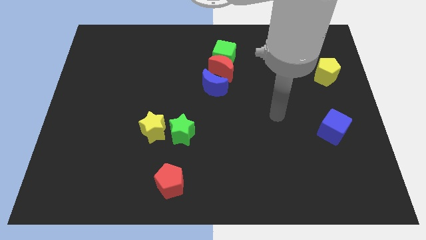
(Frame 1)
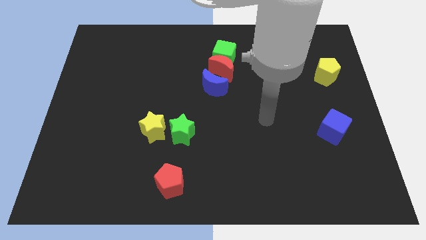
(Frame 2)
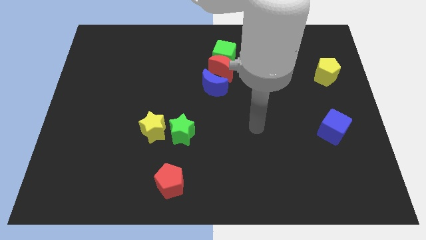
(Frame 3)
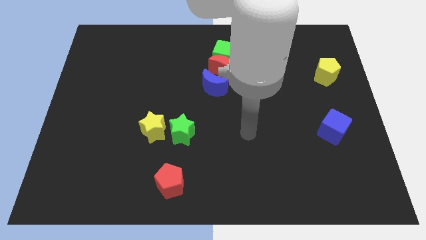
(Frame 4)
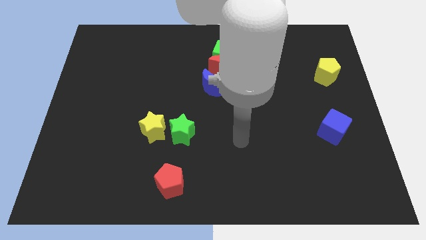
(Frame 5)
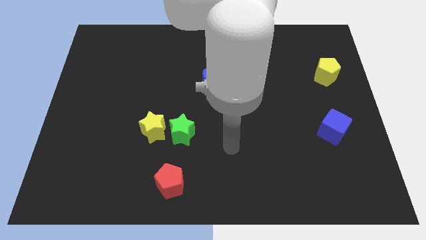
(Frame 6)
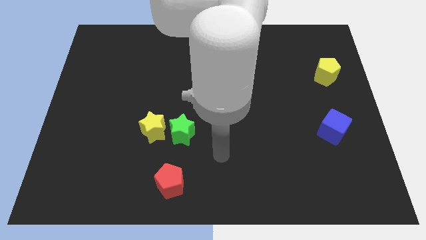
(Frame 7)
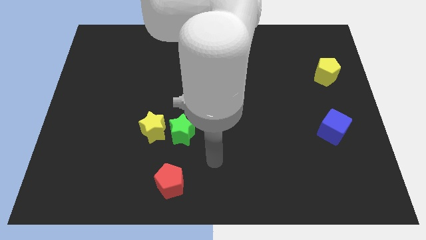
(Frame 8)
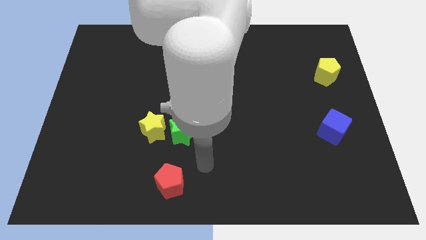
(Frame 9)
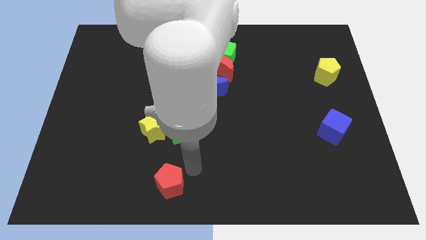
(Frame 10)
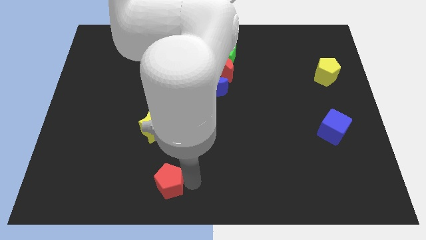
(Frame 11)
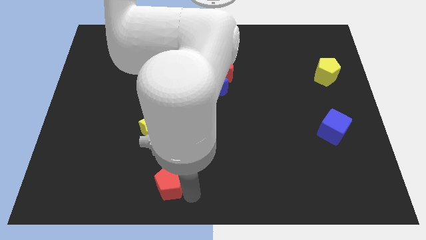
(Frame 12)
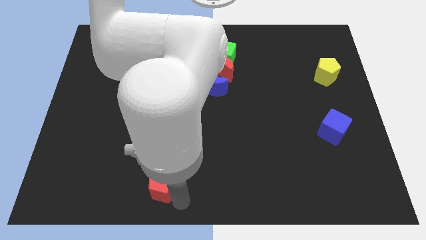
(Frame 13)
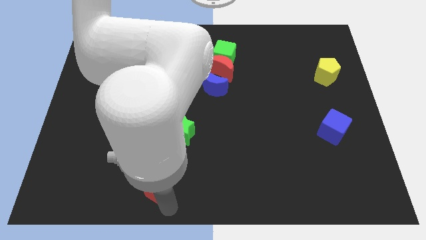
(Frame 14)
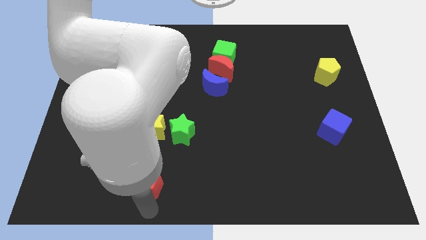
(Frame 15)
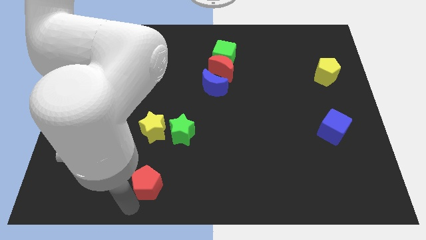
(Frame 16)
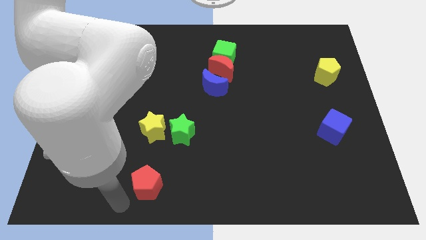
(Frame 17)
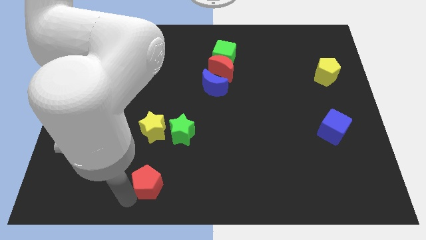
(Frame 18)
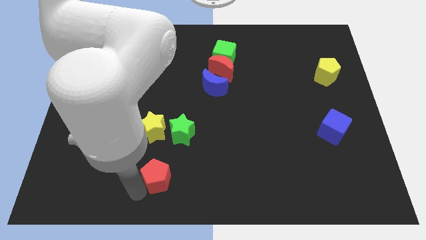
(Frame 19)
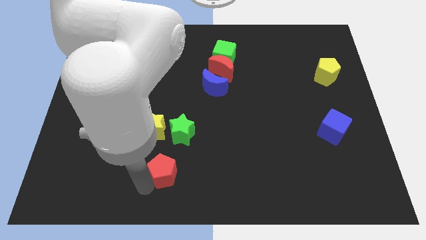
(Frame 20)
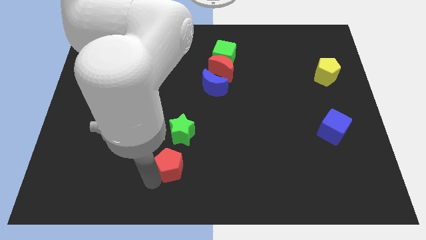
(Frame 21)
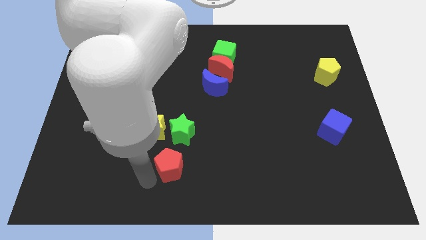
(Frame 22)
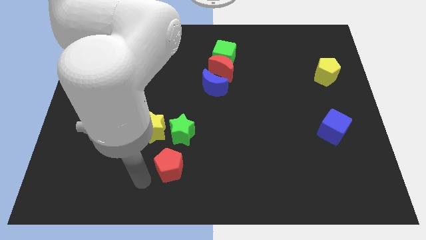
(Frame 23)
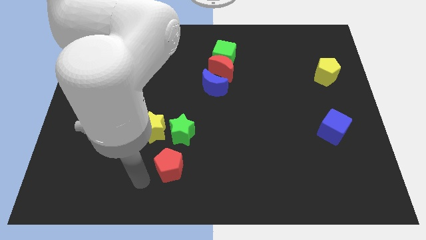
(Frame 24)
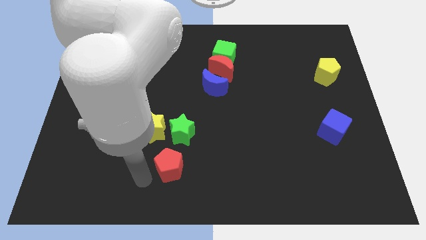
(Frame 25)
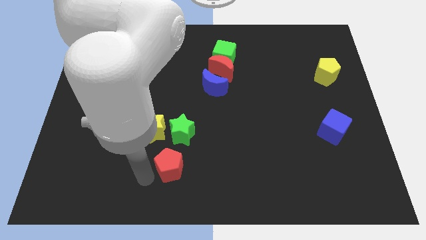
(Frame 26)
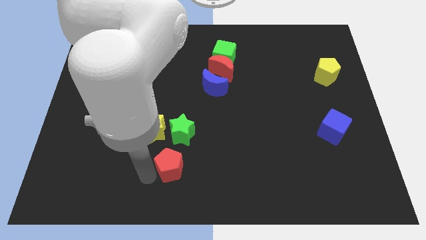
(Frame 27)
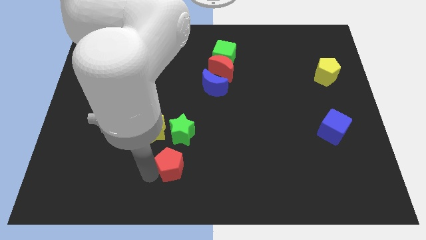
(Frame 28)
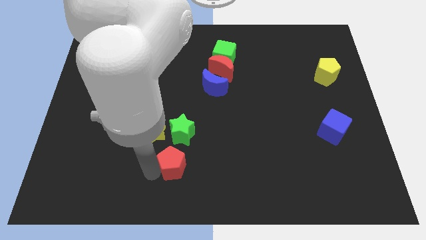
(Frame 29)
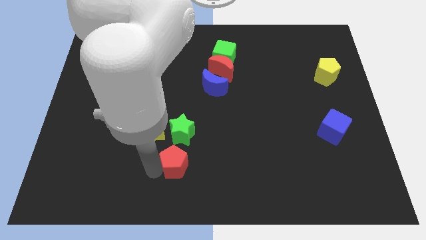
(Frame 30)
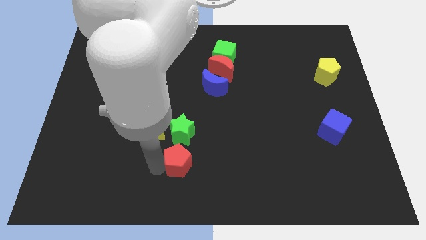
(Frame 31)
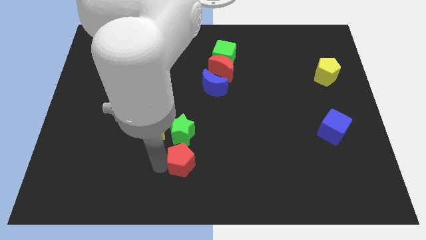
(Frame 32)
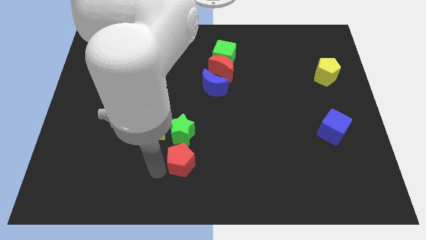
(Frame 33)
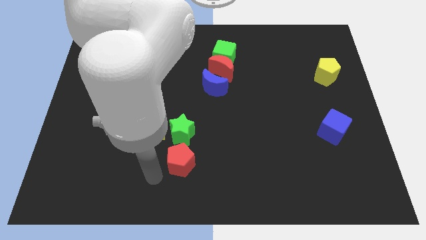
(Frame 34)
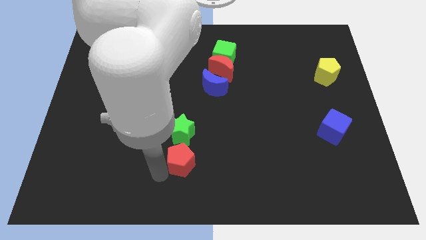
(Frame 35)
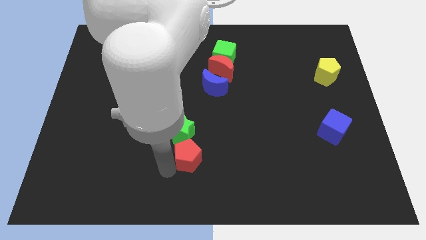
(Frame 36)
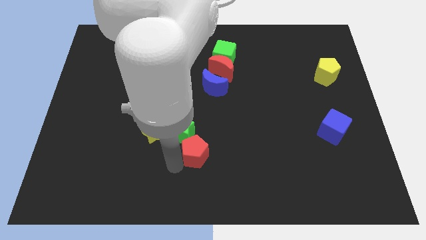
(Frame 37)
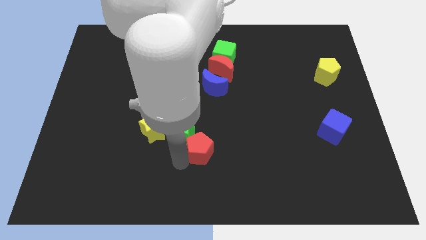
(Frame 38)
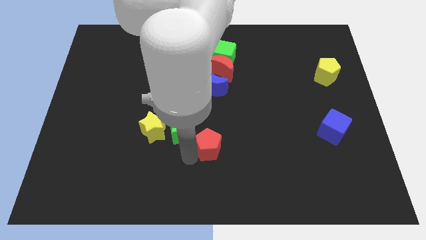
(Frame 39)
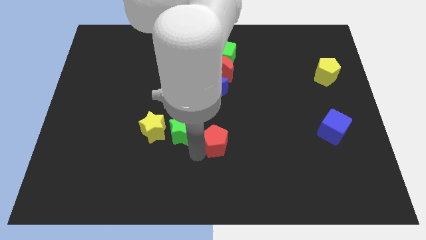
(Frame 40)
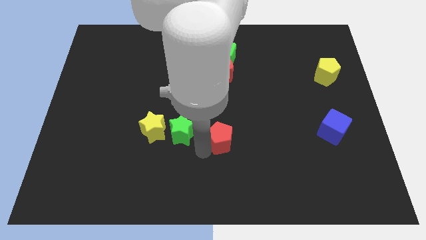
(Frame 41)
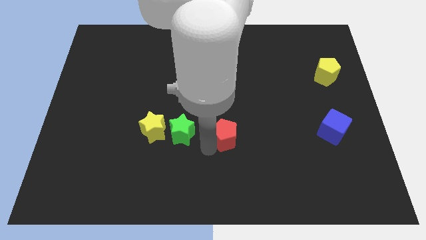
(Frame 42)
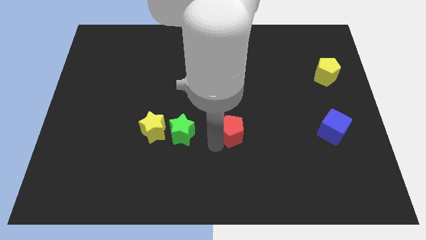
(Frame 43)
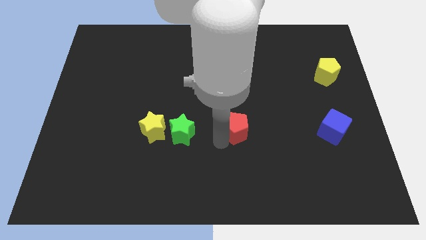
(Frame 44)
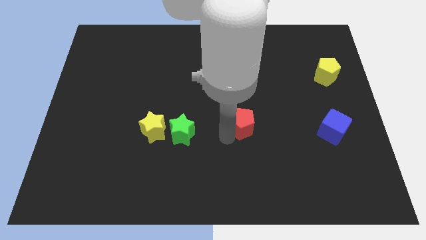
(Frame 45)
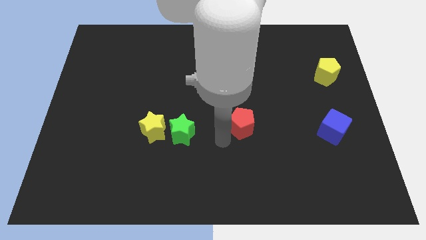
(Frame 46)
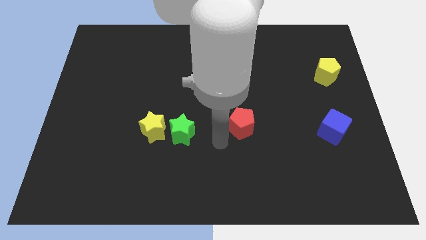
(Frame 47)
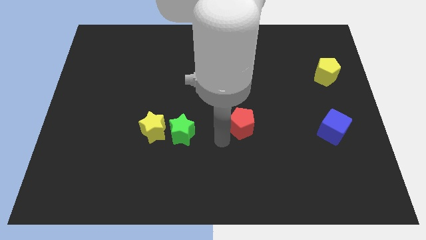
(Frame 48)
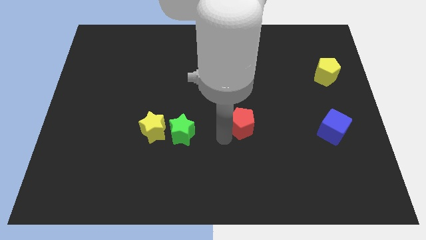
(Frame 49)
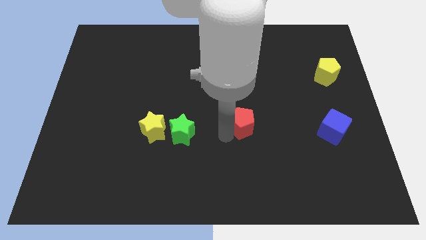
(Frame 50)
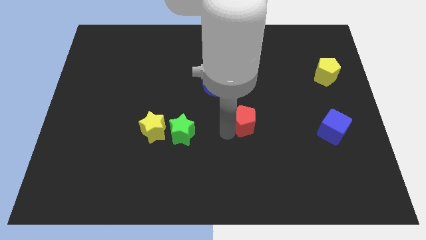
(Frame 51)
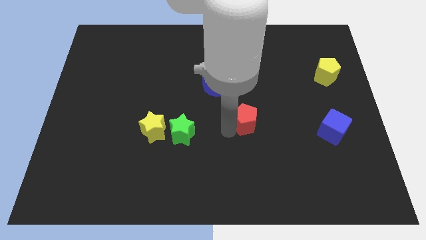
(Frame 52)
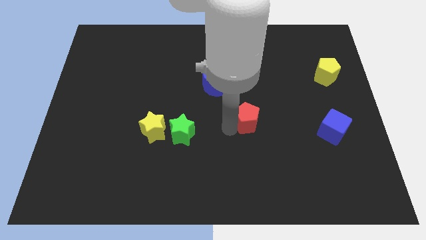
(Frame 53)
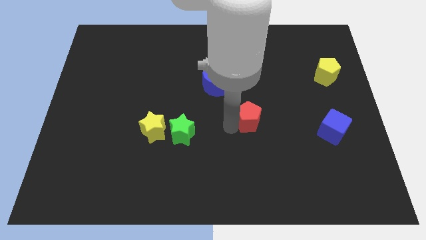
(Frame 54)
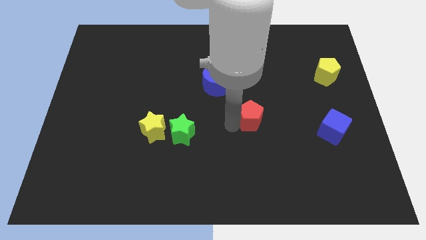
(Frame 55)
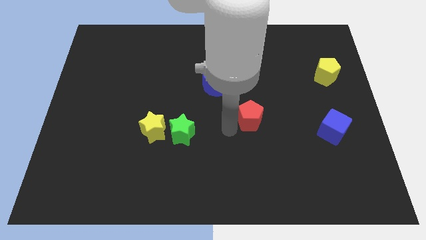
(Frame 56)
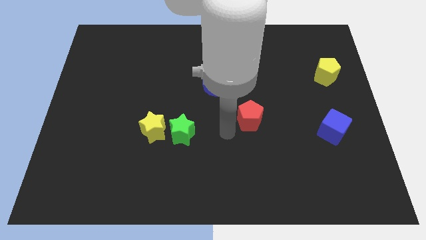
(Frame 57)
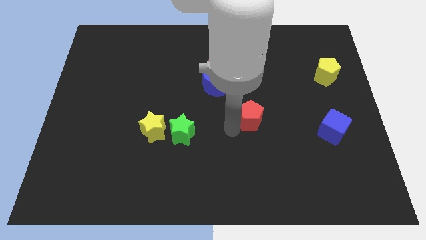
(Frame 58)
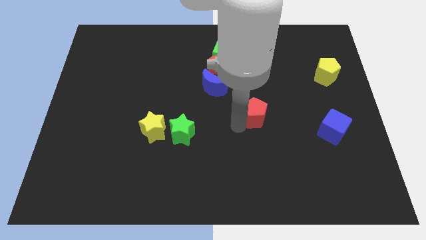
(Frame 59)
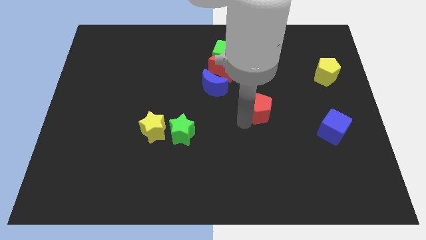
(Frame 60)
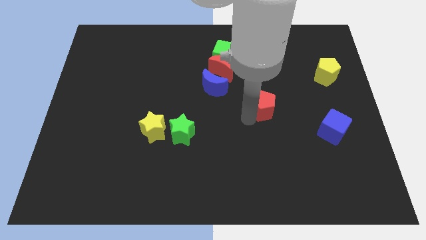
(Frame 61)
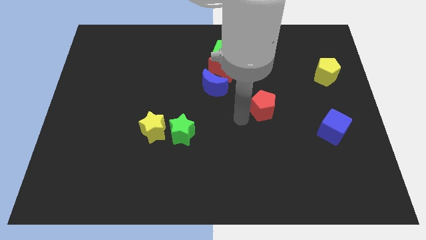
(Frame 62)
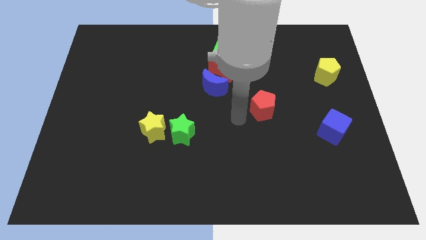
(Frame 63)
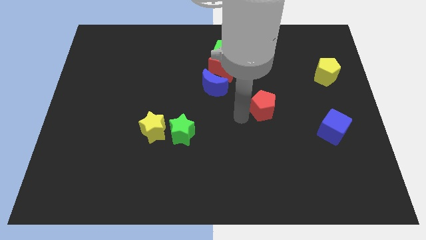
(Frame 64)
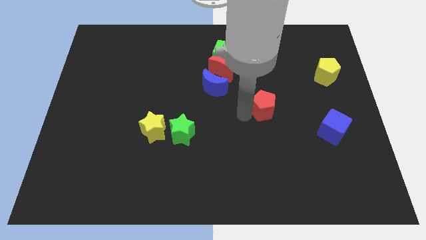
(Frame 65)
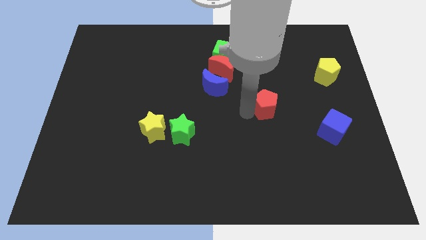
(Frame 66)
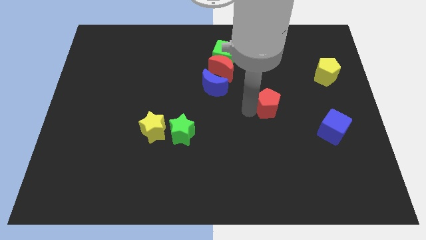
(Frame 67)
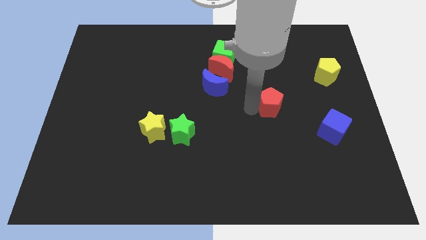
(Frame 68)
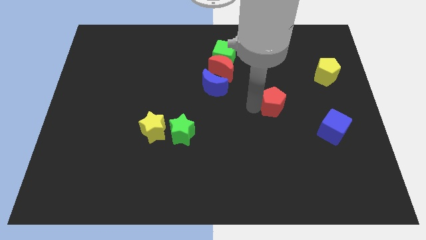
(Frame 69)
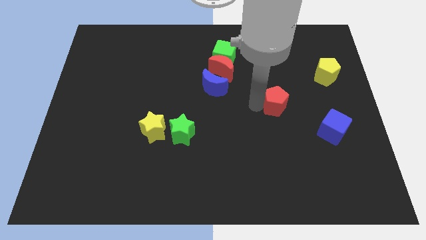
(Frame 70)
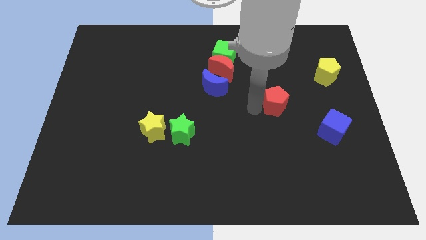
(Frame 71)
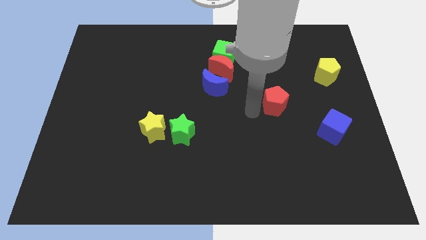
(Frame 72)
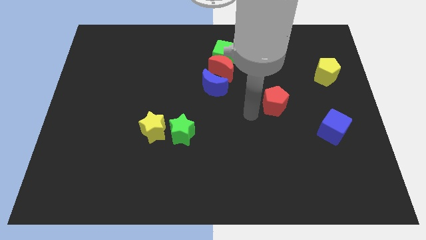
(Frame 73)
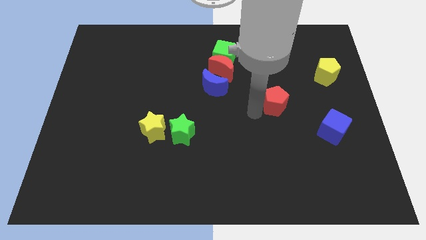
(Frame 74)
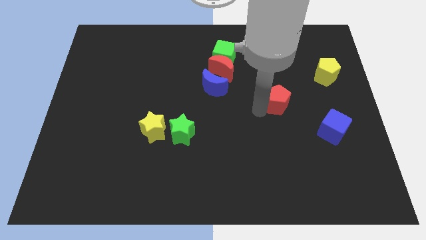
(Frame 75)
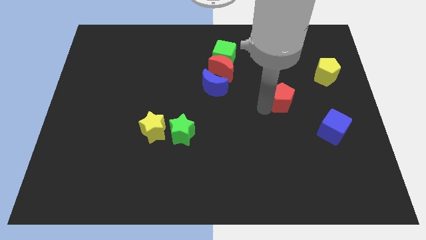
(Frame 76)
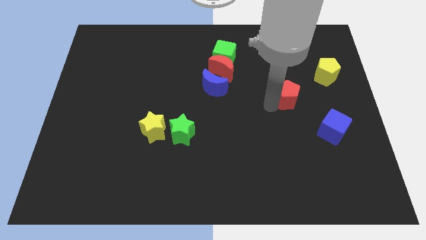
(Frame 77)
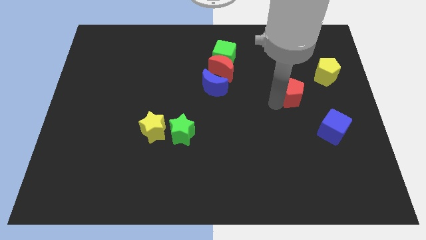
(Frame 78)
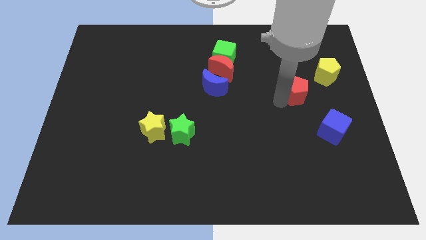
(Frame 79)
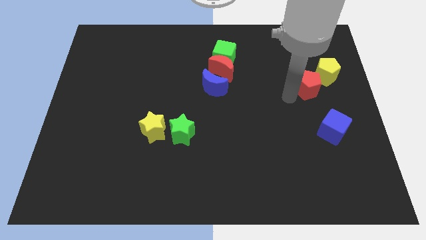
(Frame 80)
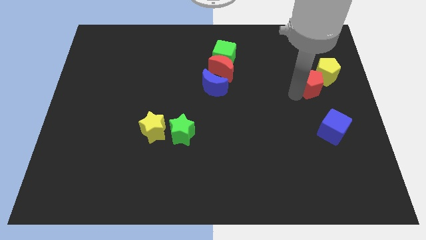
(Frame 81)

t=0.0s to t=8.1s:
put the red pentagon to the yellow pentagon
